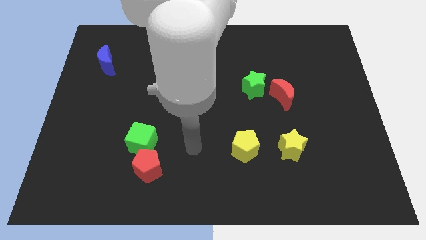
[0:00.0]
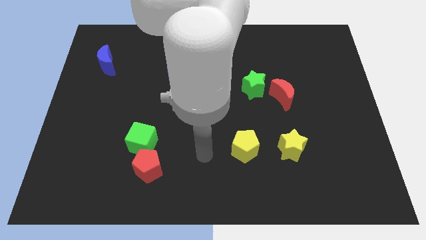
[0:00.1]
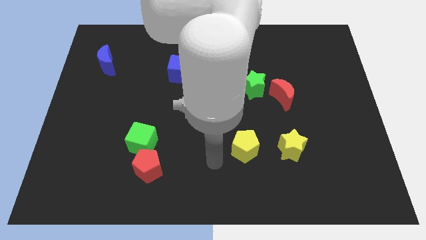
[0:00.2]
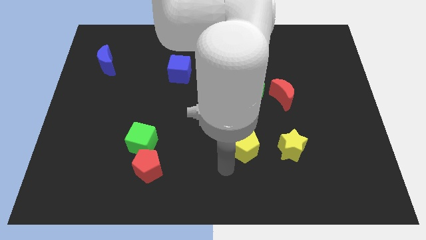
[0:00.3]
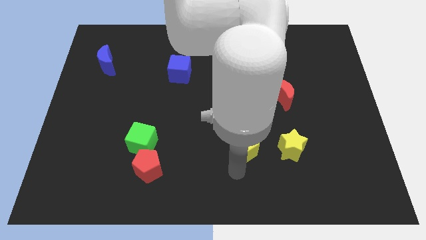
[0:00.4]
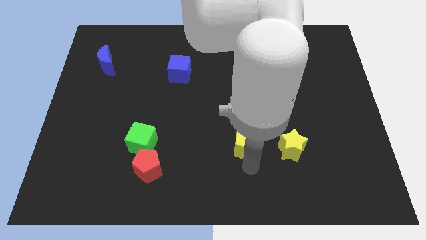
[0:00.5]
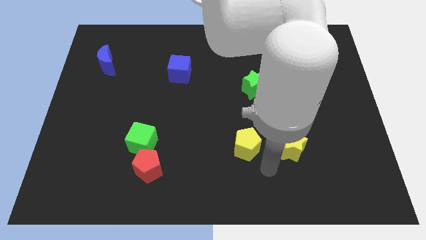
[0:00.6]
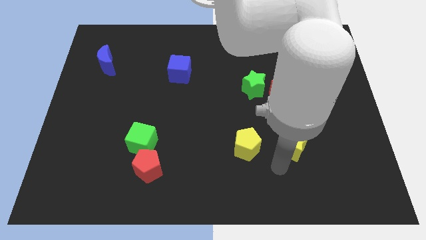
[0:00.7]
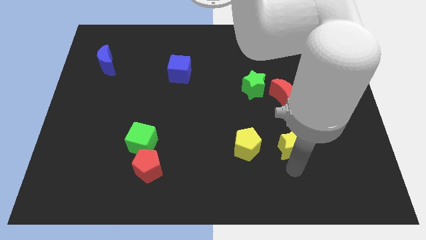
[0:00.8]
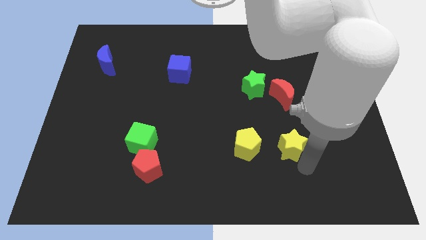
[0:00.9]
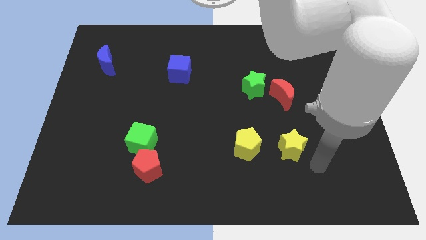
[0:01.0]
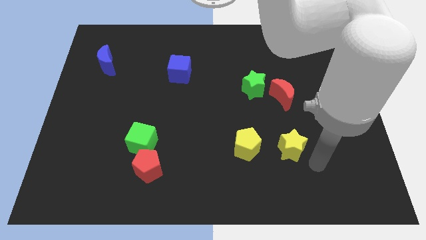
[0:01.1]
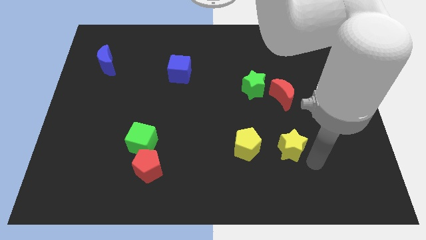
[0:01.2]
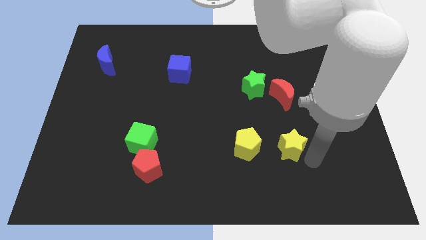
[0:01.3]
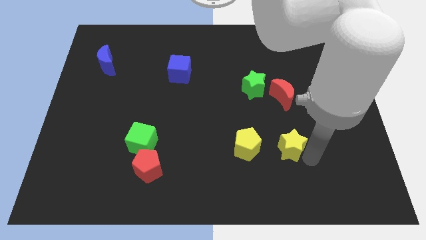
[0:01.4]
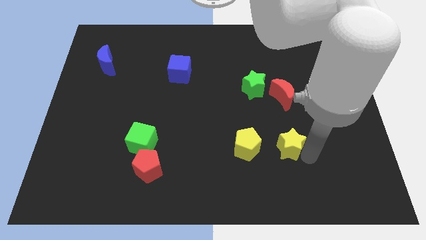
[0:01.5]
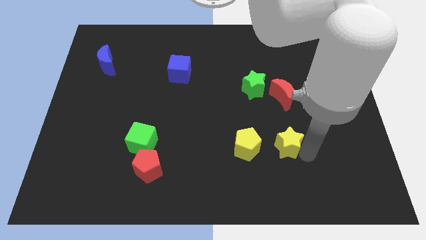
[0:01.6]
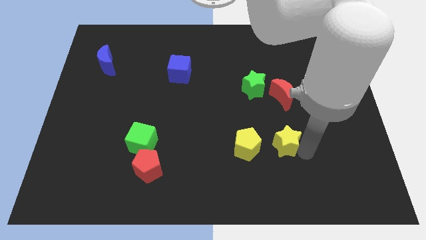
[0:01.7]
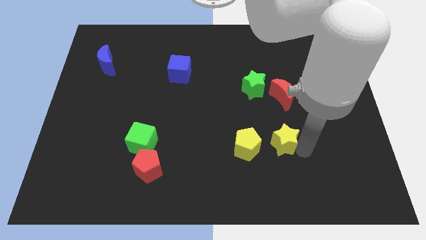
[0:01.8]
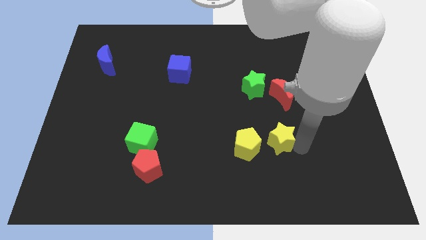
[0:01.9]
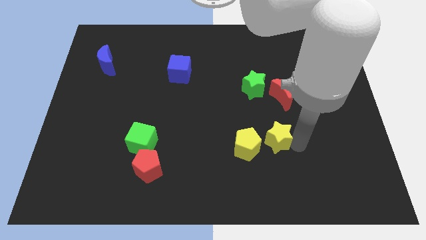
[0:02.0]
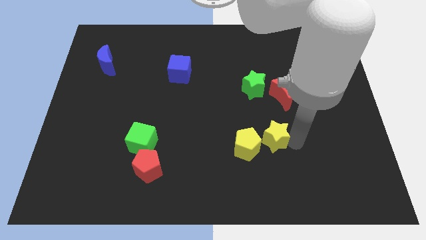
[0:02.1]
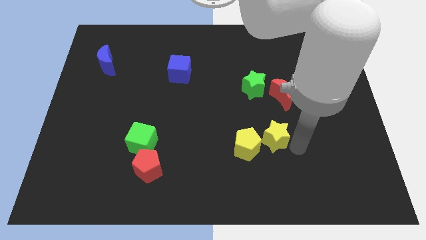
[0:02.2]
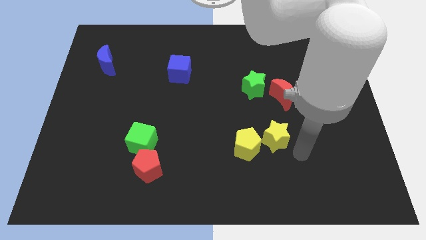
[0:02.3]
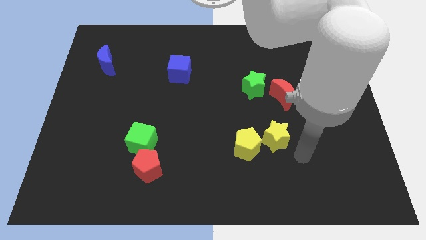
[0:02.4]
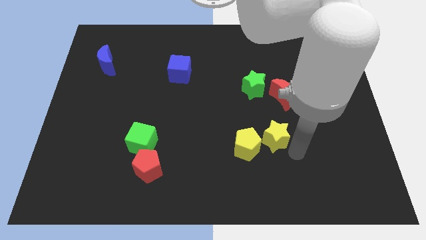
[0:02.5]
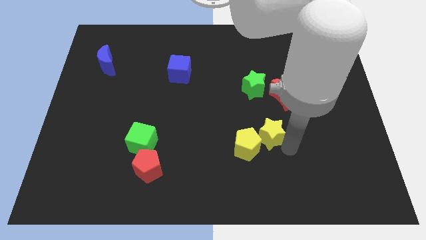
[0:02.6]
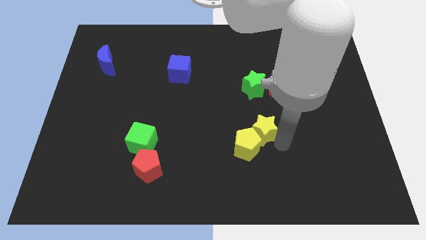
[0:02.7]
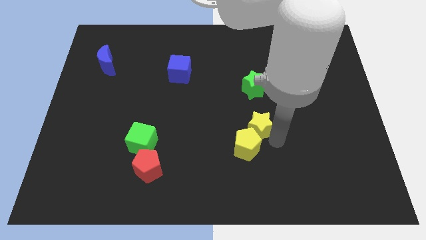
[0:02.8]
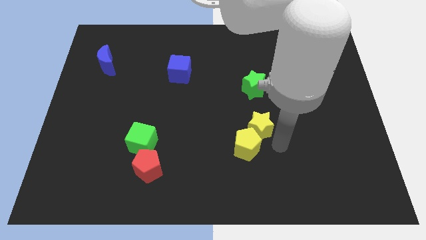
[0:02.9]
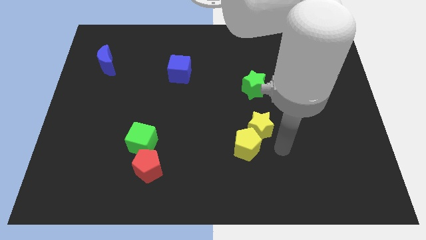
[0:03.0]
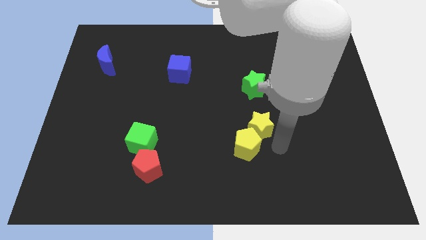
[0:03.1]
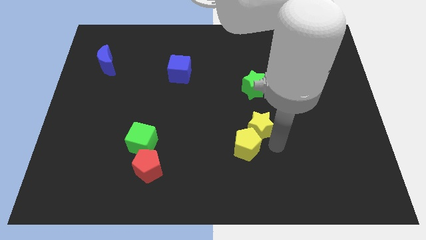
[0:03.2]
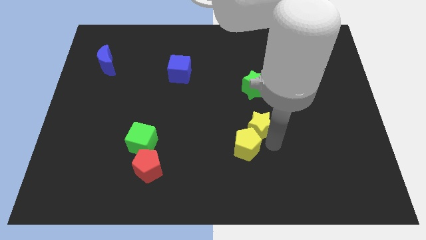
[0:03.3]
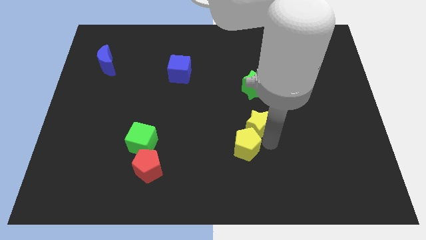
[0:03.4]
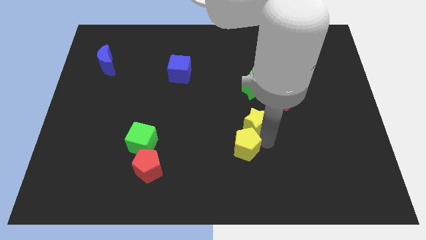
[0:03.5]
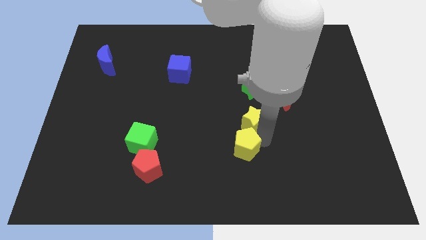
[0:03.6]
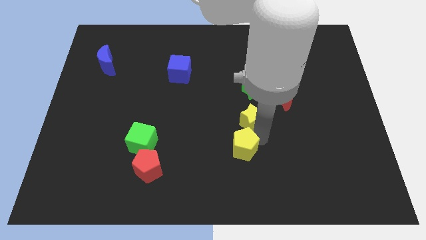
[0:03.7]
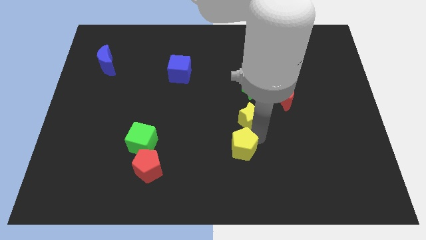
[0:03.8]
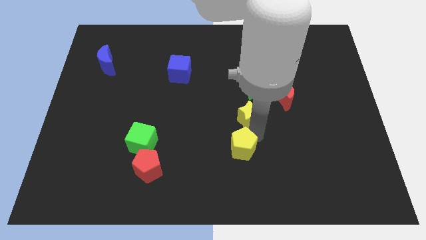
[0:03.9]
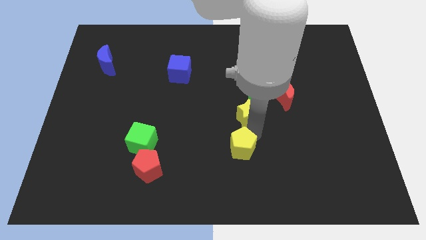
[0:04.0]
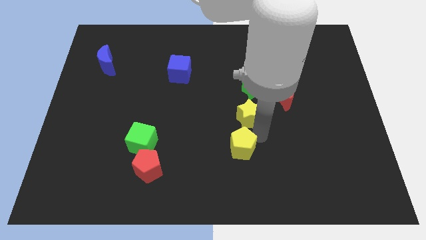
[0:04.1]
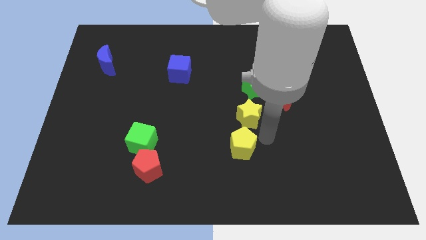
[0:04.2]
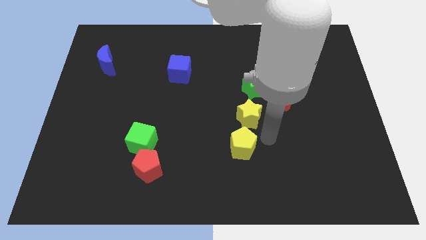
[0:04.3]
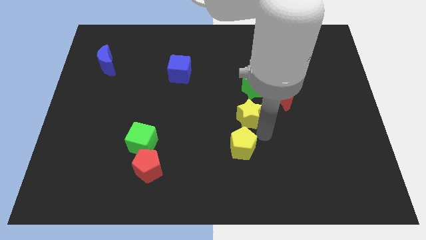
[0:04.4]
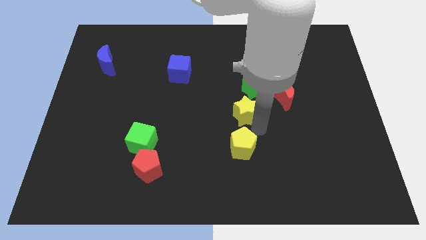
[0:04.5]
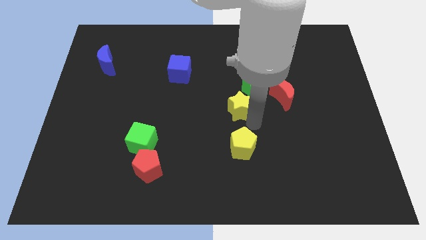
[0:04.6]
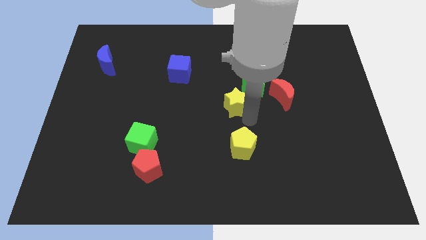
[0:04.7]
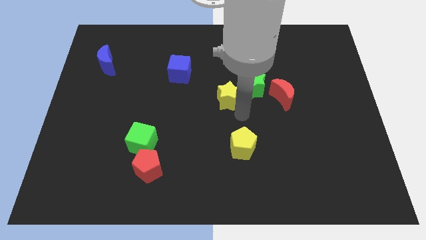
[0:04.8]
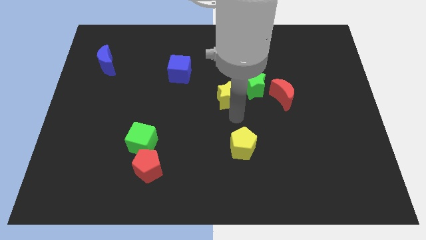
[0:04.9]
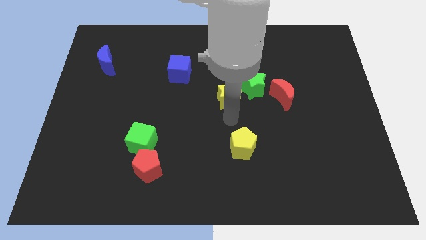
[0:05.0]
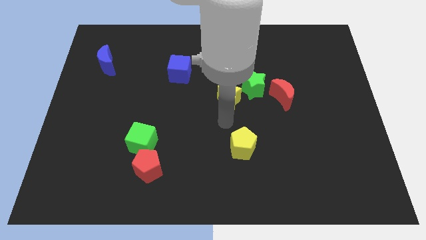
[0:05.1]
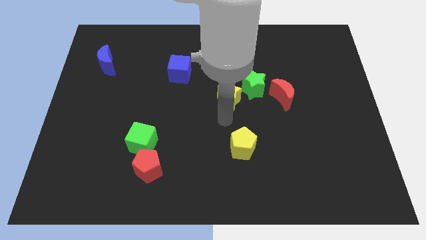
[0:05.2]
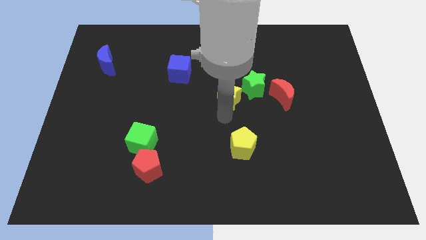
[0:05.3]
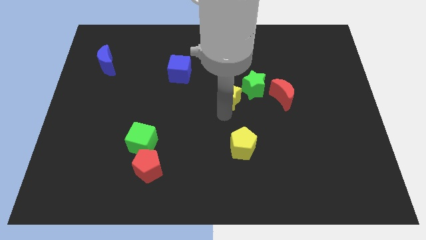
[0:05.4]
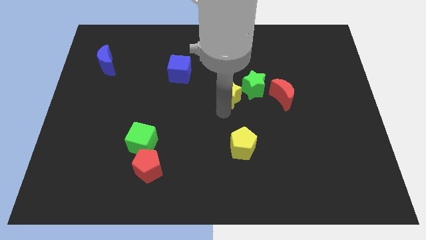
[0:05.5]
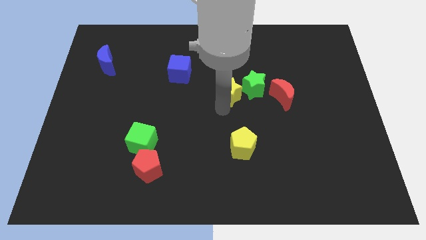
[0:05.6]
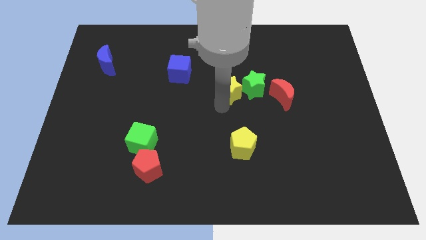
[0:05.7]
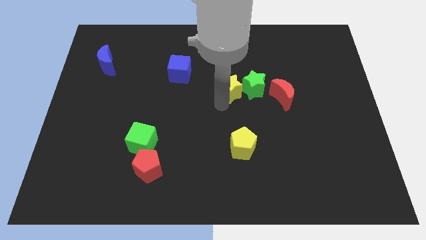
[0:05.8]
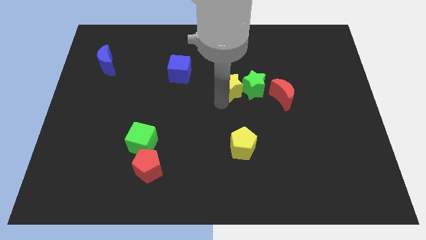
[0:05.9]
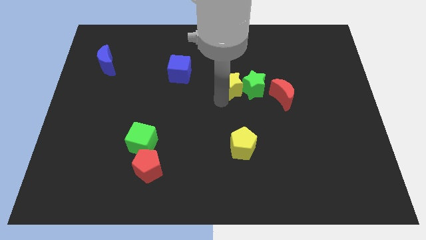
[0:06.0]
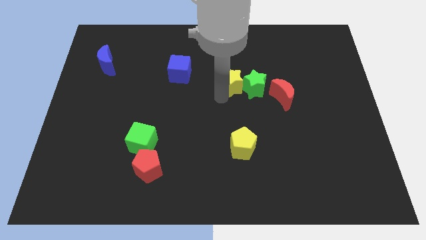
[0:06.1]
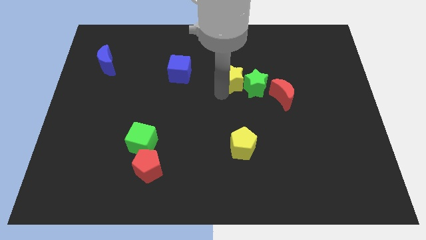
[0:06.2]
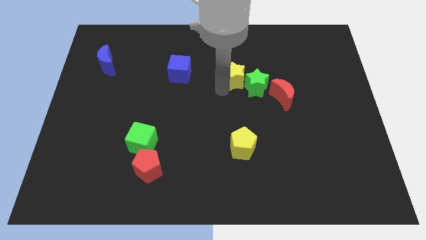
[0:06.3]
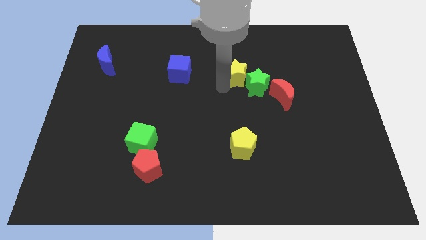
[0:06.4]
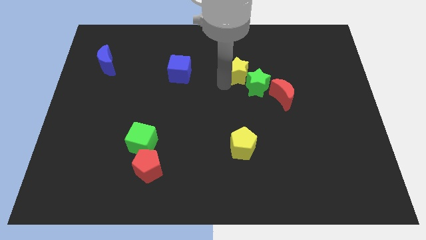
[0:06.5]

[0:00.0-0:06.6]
slide the yellow star to the top of the green star
